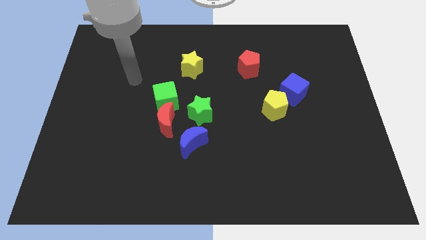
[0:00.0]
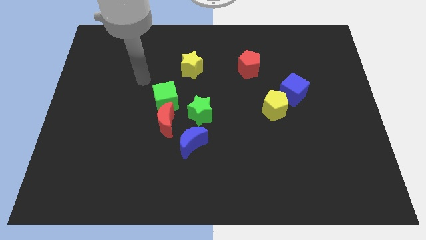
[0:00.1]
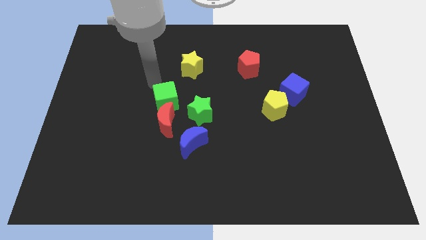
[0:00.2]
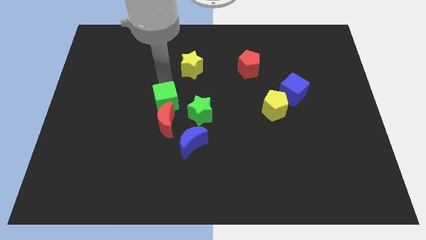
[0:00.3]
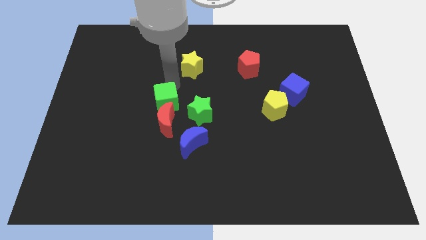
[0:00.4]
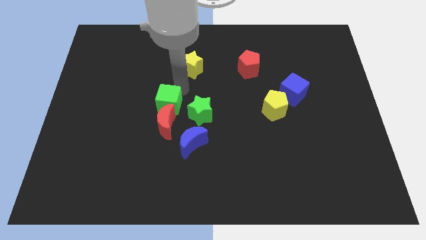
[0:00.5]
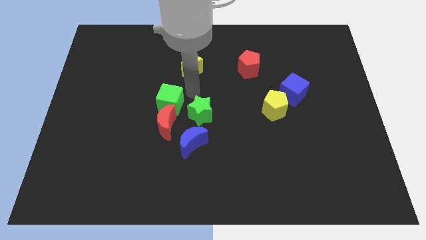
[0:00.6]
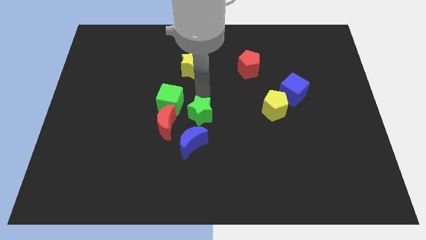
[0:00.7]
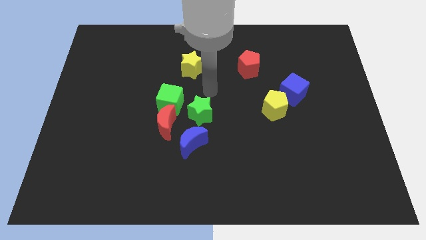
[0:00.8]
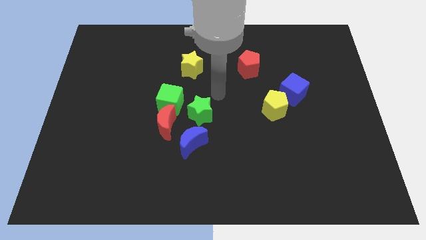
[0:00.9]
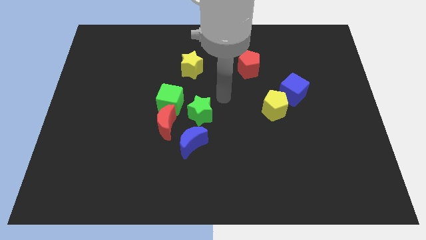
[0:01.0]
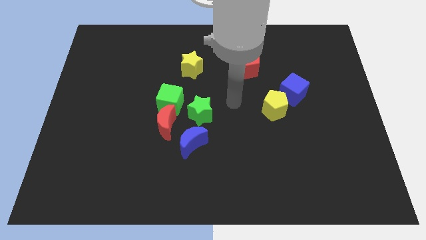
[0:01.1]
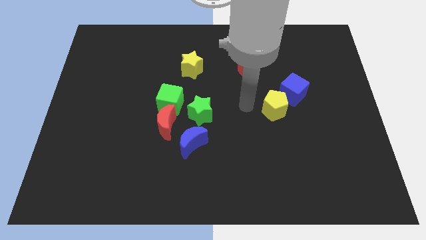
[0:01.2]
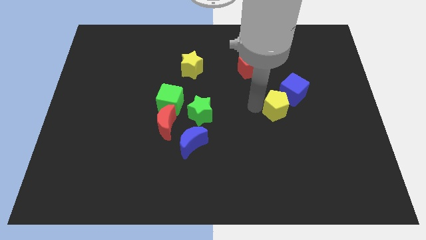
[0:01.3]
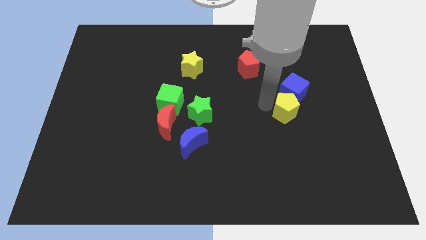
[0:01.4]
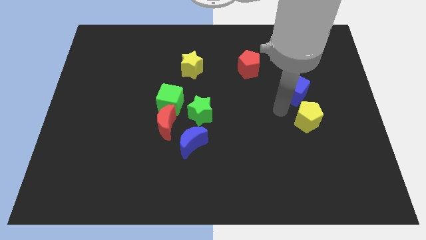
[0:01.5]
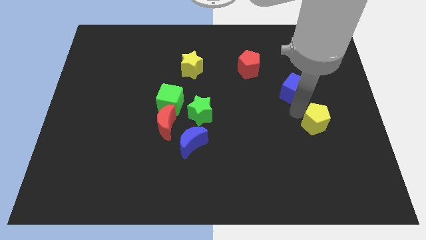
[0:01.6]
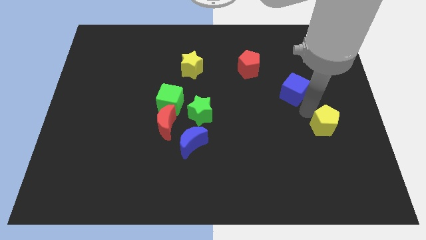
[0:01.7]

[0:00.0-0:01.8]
separate the blue cube from the yellow pentagon

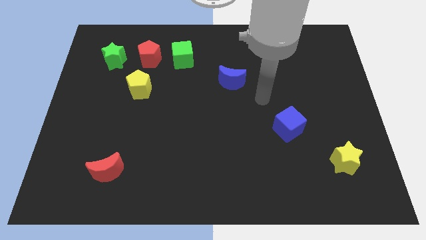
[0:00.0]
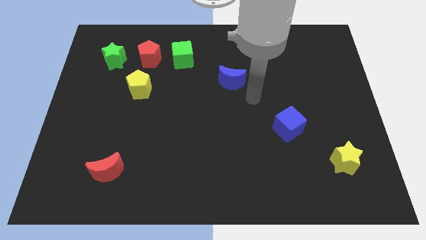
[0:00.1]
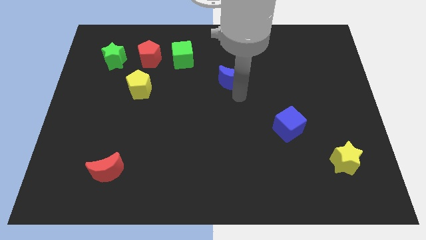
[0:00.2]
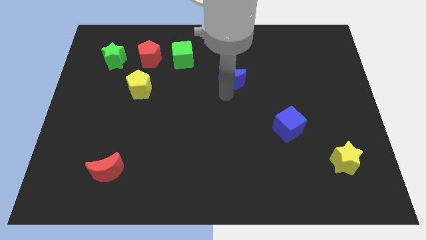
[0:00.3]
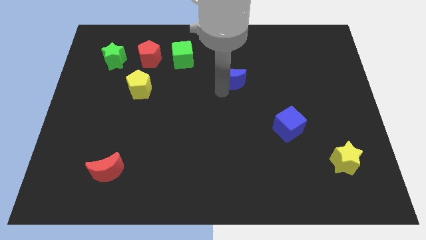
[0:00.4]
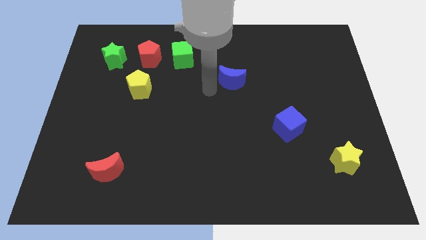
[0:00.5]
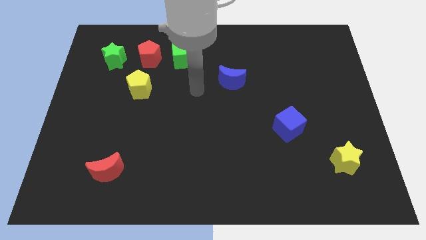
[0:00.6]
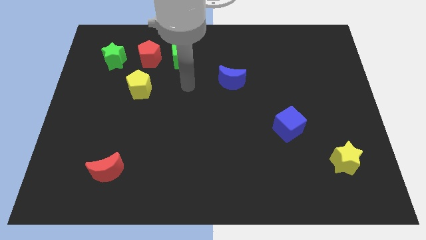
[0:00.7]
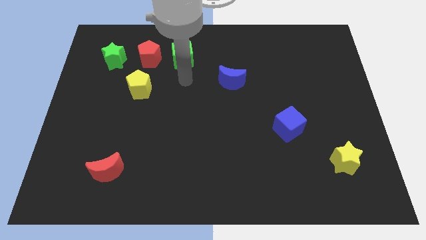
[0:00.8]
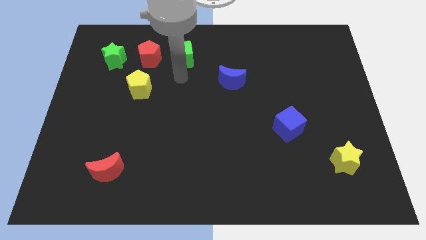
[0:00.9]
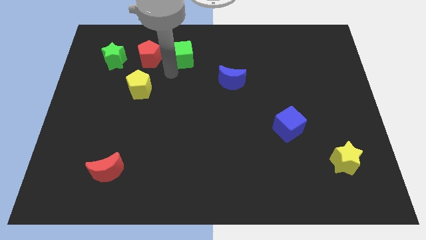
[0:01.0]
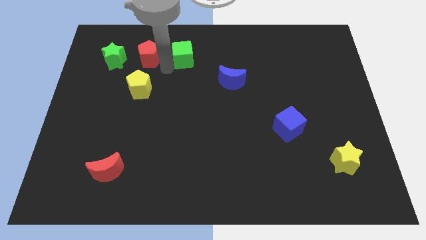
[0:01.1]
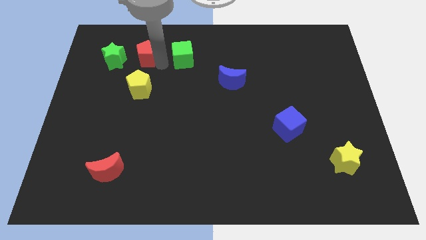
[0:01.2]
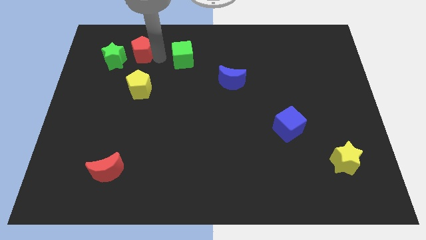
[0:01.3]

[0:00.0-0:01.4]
move the green cube away from the red pentagon

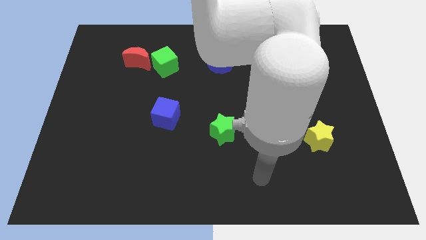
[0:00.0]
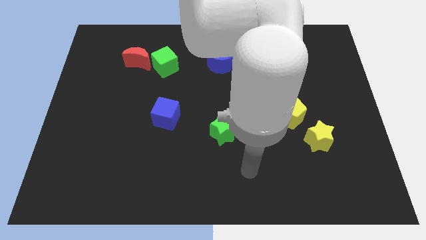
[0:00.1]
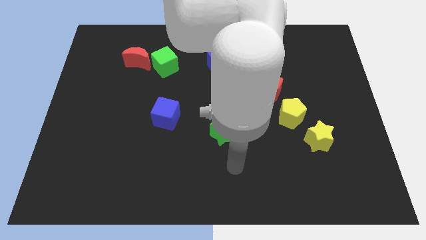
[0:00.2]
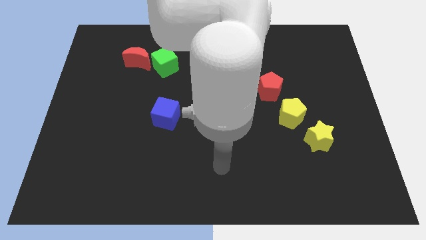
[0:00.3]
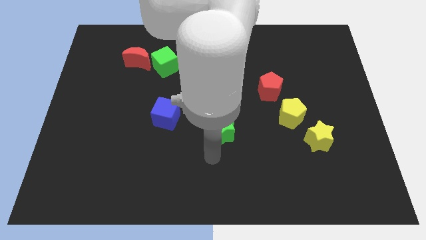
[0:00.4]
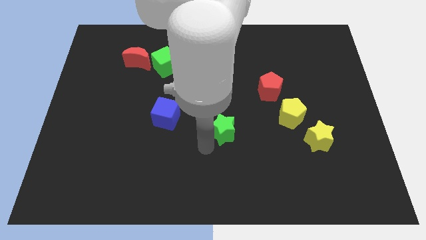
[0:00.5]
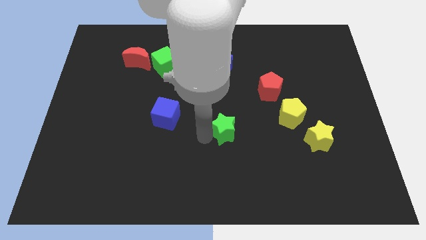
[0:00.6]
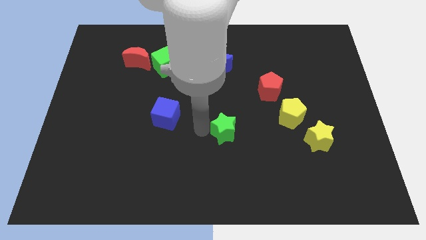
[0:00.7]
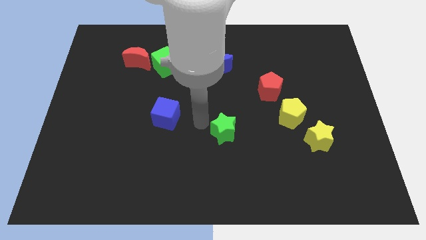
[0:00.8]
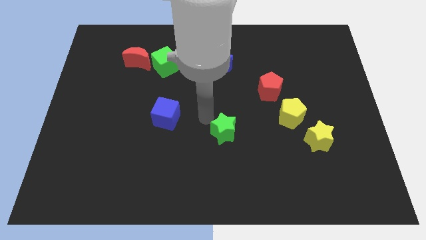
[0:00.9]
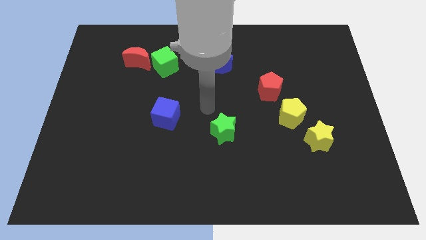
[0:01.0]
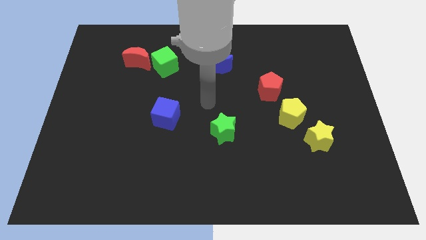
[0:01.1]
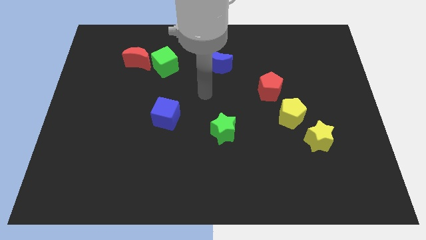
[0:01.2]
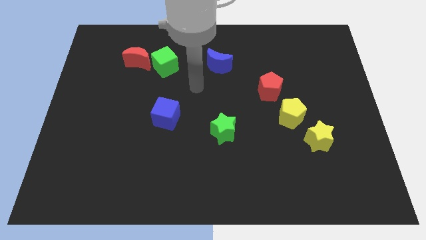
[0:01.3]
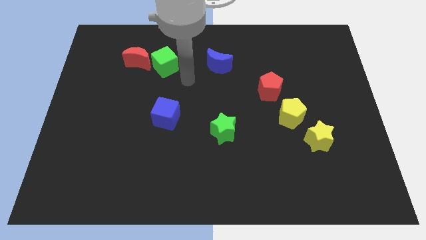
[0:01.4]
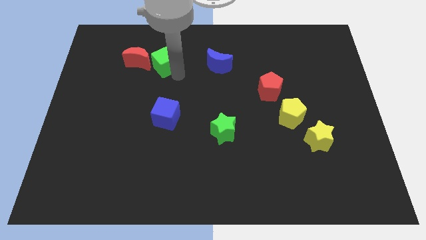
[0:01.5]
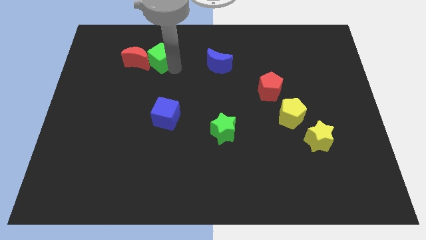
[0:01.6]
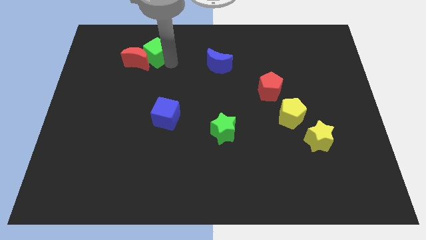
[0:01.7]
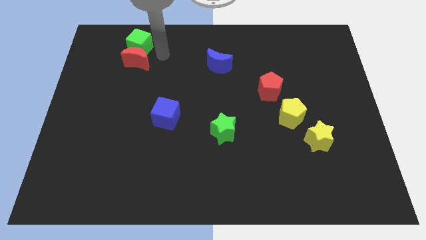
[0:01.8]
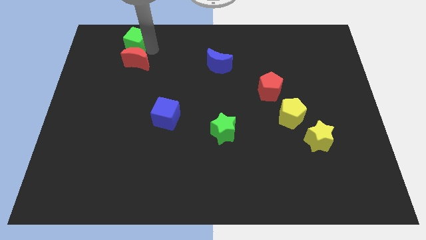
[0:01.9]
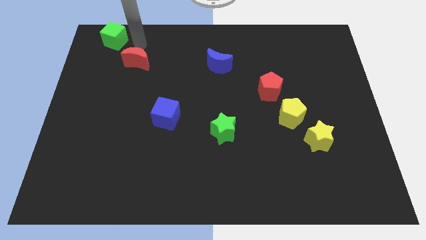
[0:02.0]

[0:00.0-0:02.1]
separate the red moon from the green cube

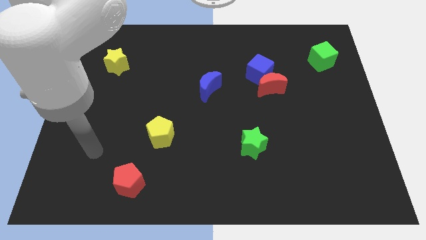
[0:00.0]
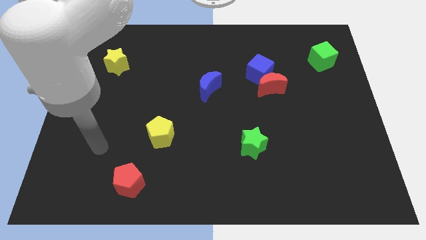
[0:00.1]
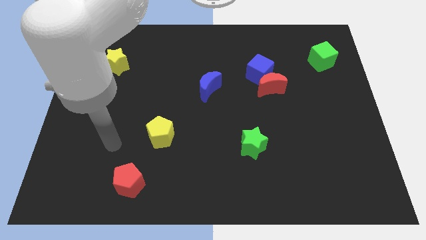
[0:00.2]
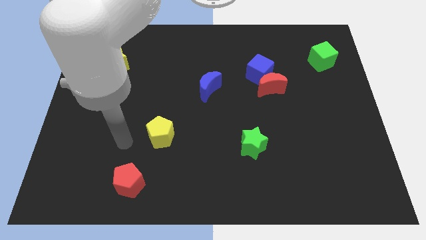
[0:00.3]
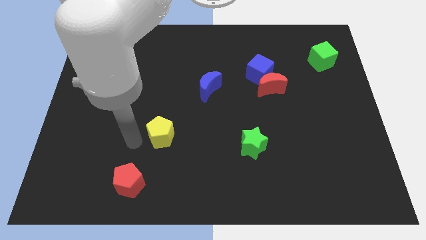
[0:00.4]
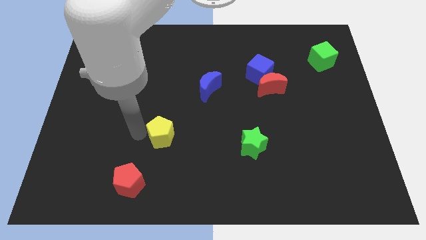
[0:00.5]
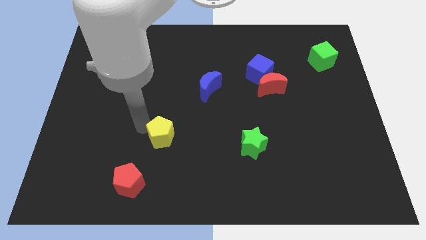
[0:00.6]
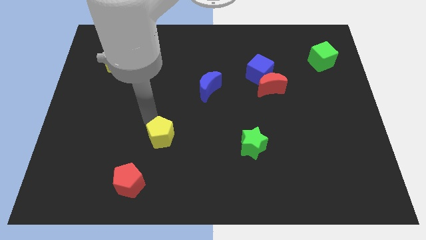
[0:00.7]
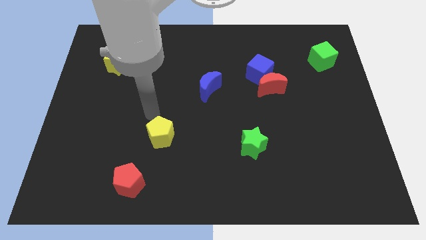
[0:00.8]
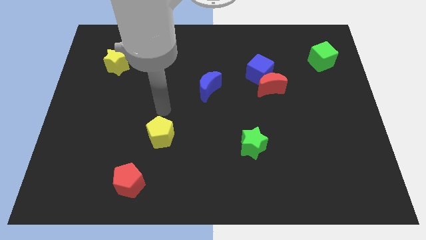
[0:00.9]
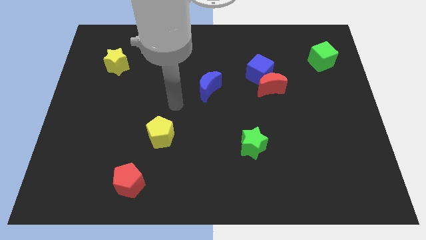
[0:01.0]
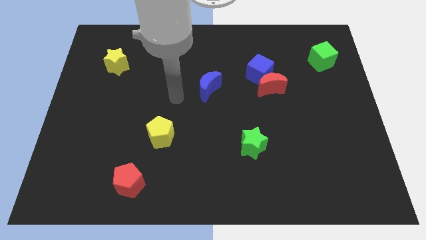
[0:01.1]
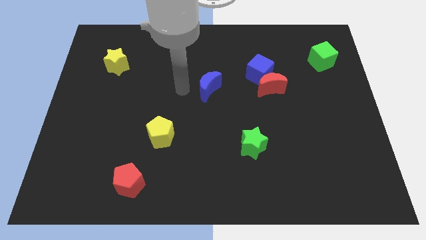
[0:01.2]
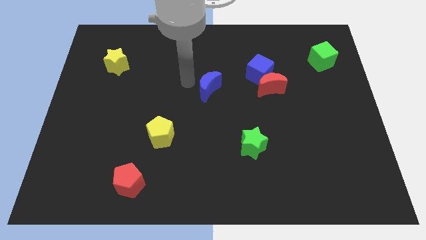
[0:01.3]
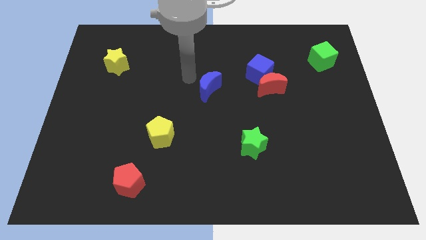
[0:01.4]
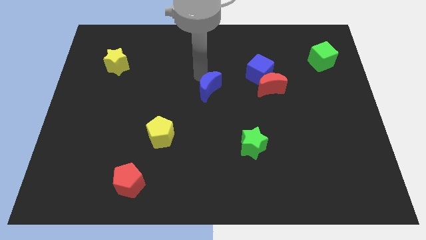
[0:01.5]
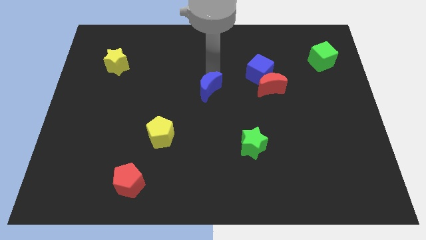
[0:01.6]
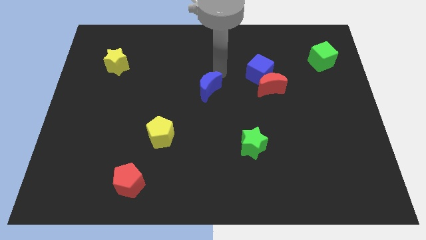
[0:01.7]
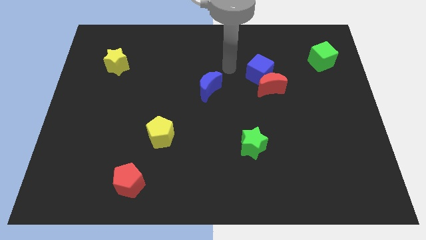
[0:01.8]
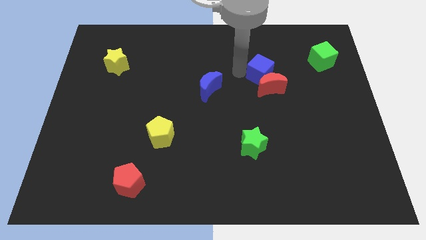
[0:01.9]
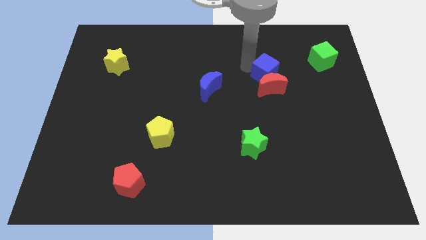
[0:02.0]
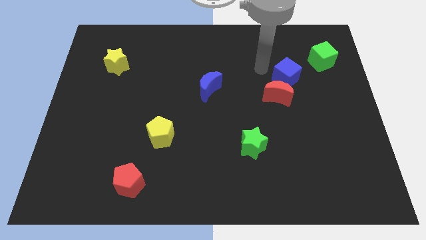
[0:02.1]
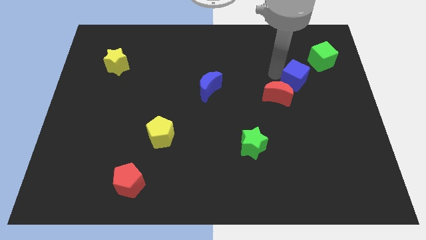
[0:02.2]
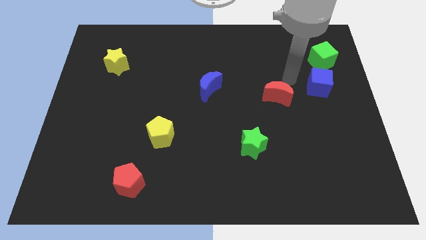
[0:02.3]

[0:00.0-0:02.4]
pull the red moon apart from the blue cube

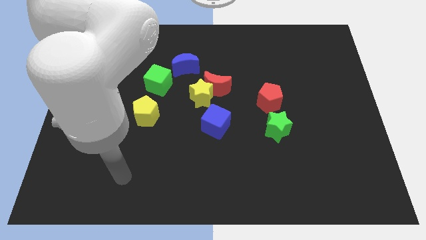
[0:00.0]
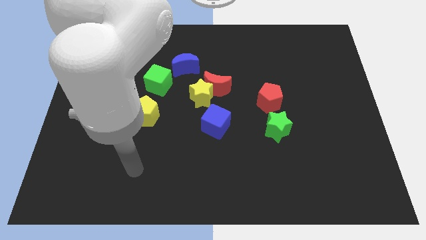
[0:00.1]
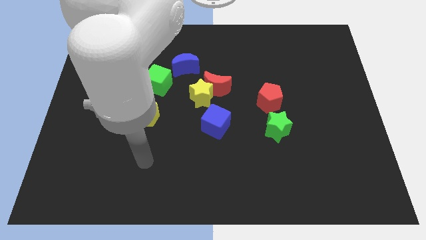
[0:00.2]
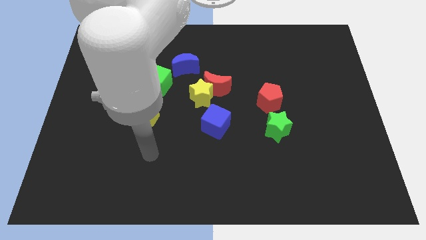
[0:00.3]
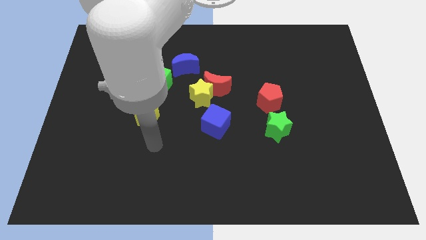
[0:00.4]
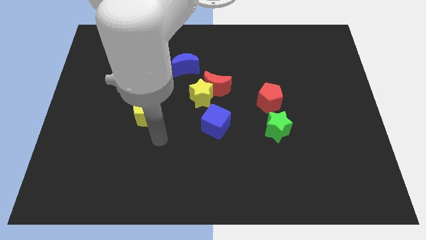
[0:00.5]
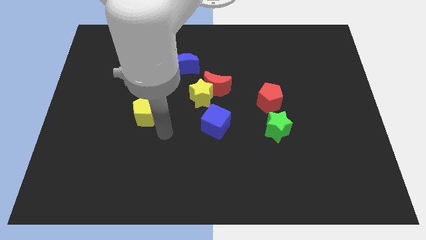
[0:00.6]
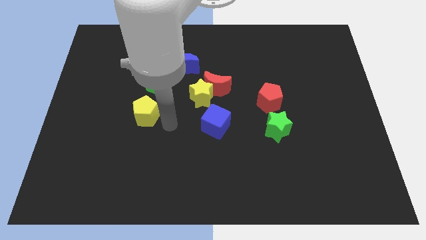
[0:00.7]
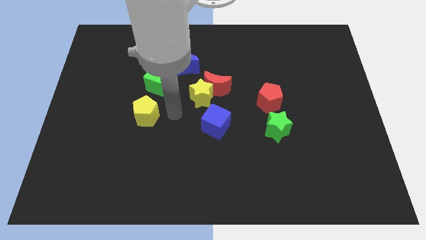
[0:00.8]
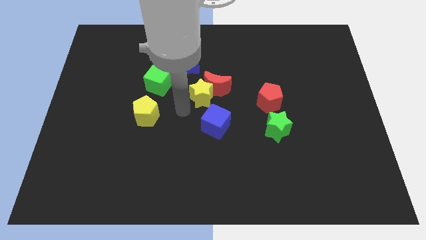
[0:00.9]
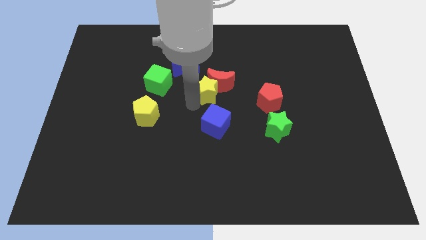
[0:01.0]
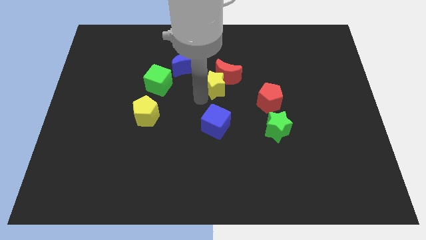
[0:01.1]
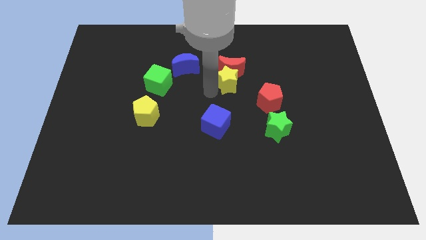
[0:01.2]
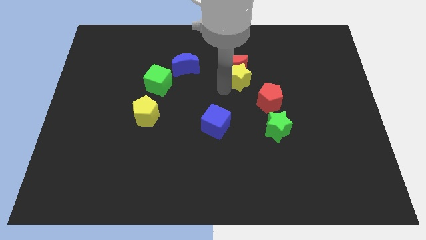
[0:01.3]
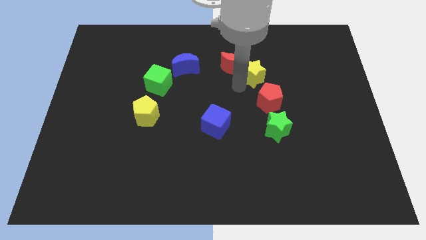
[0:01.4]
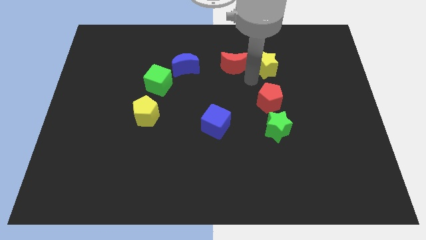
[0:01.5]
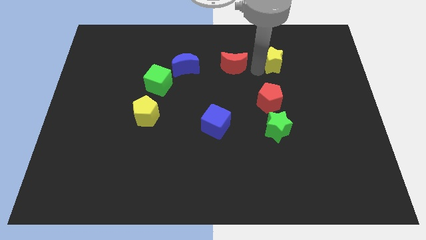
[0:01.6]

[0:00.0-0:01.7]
pull the red moon apart from the yellow star
